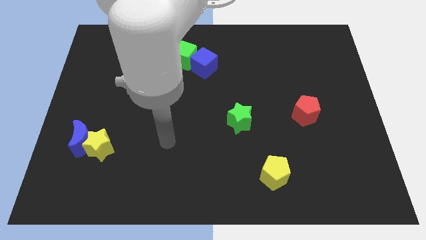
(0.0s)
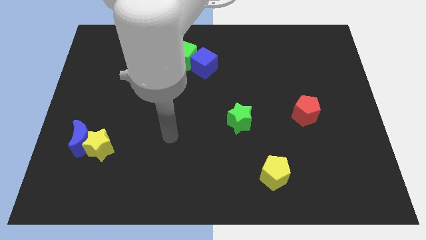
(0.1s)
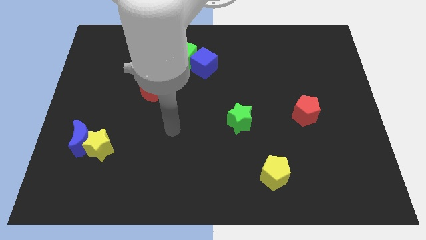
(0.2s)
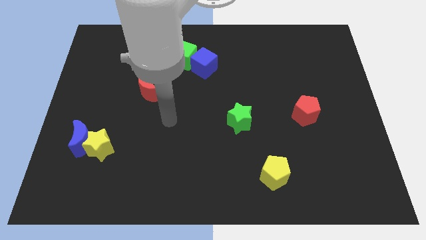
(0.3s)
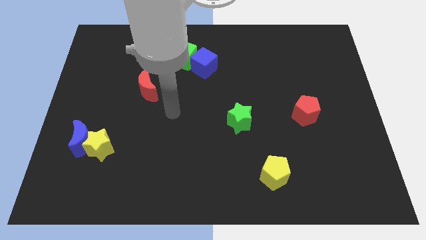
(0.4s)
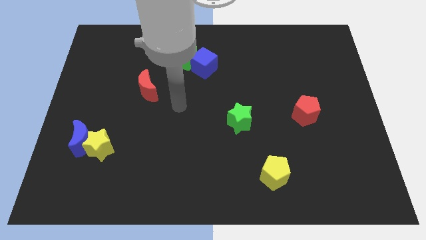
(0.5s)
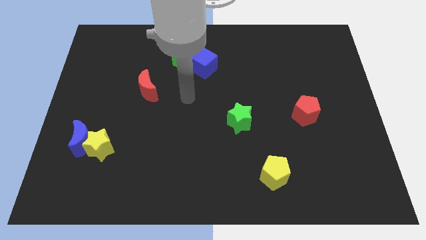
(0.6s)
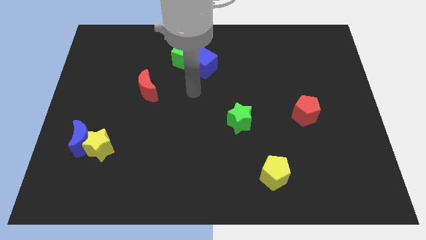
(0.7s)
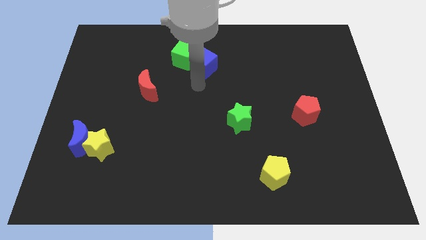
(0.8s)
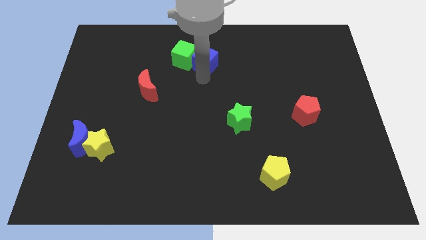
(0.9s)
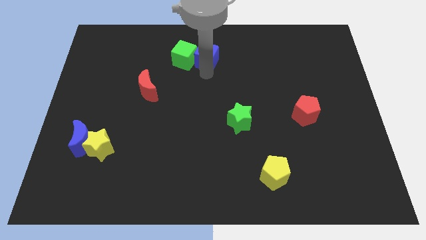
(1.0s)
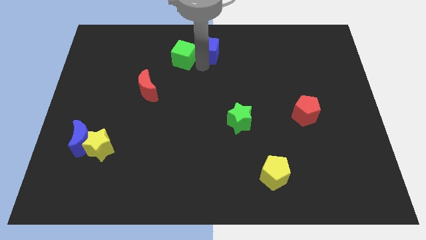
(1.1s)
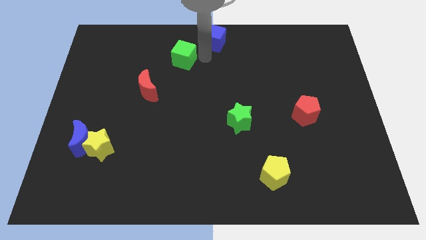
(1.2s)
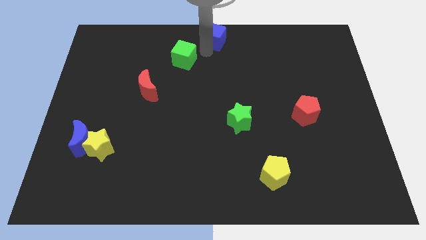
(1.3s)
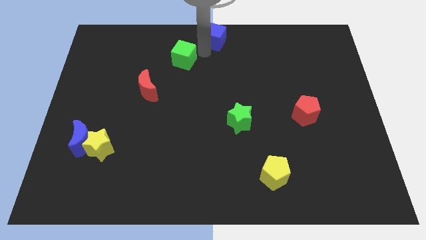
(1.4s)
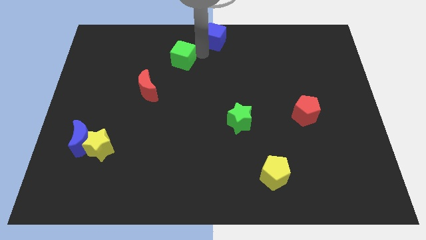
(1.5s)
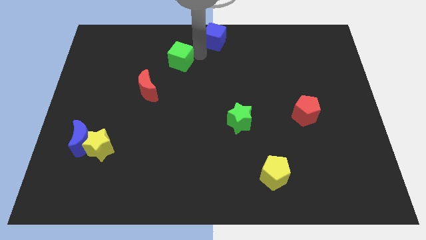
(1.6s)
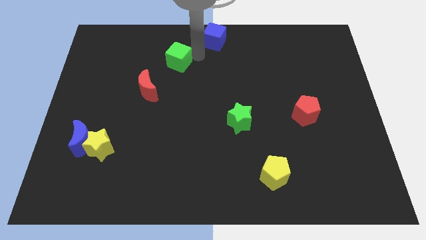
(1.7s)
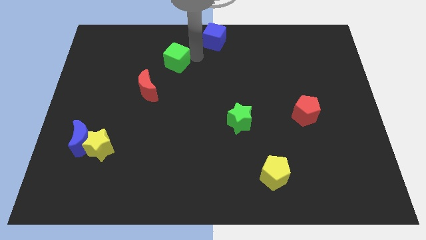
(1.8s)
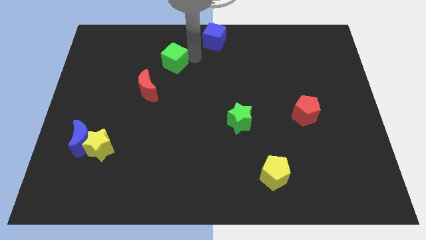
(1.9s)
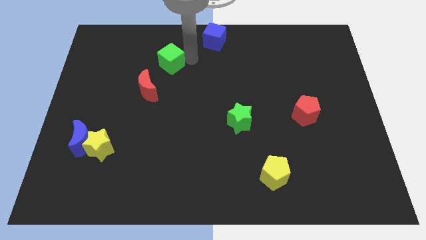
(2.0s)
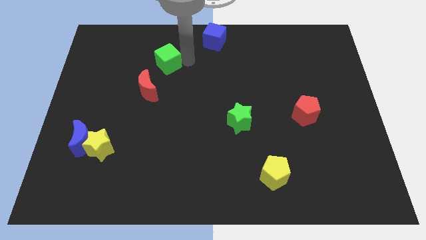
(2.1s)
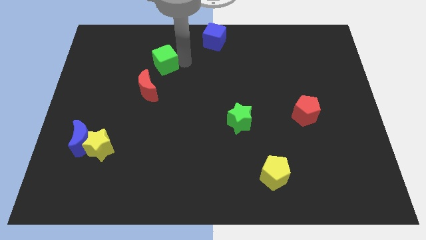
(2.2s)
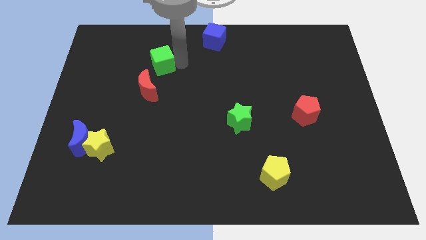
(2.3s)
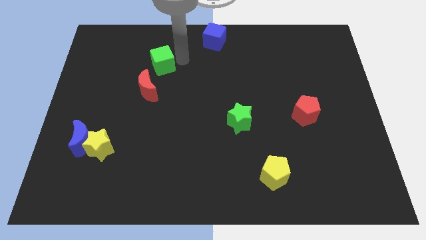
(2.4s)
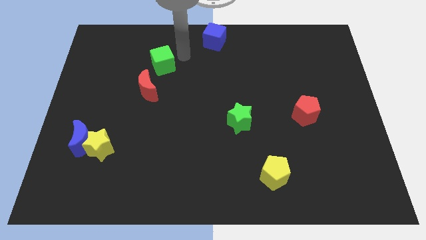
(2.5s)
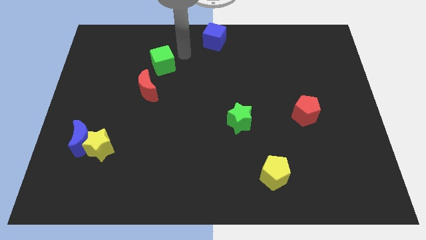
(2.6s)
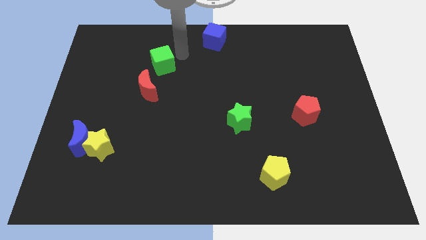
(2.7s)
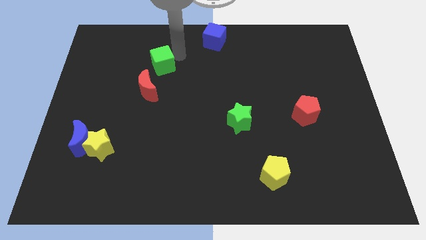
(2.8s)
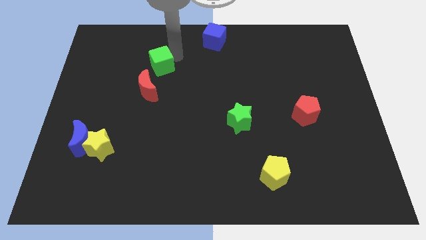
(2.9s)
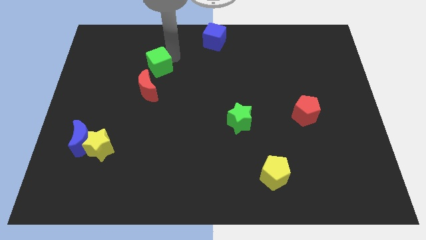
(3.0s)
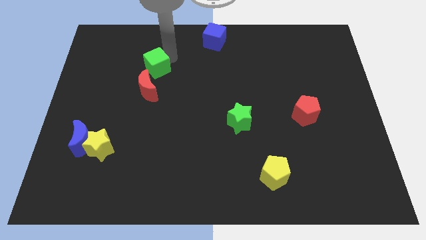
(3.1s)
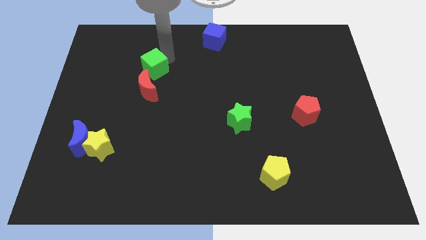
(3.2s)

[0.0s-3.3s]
slide the green cube down and left diagonally slightly

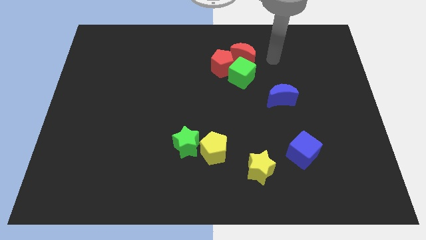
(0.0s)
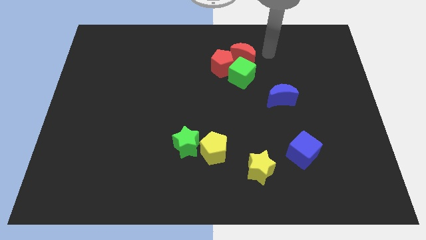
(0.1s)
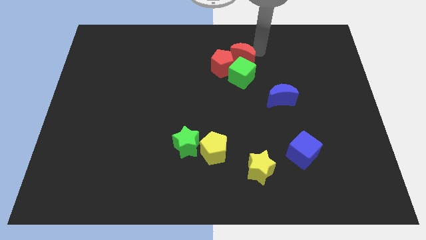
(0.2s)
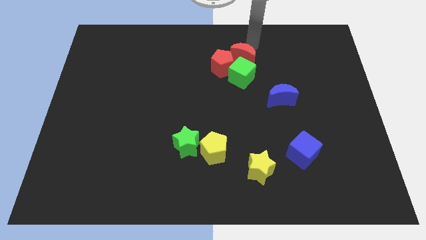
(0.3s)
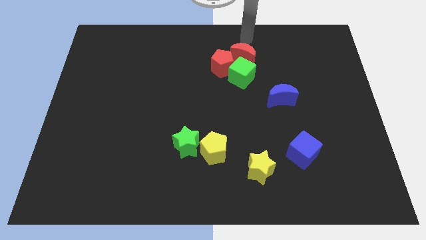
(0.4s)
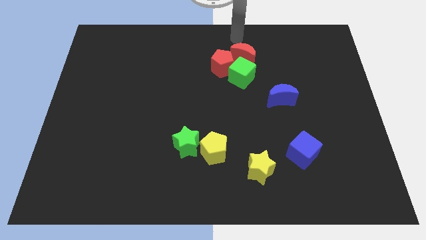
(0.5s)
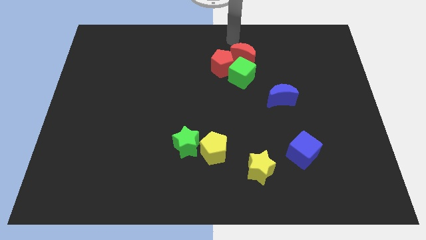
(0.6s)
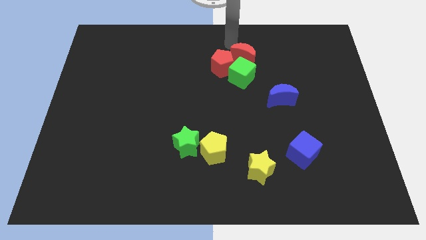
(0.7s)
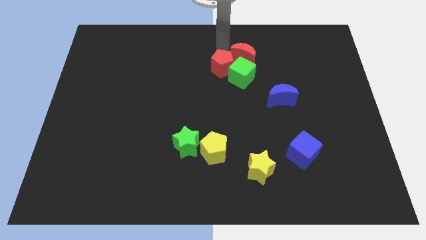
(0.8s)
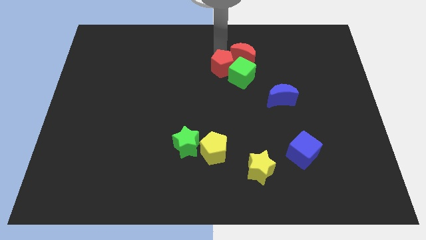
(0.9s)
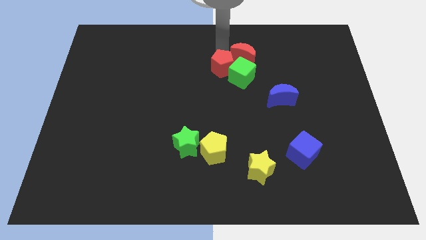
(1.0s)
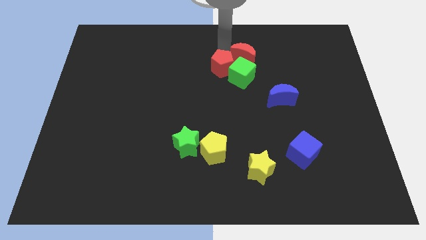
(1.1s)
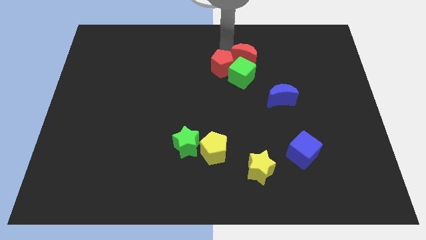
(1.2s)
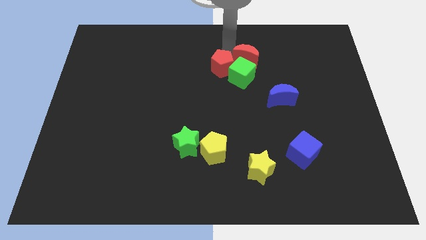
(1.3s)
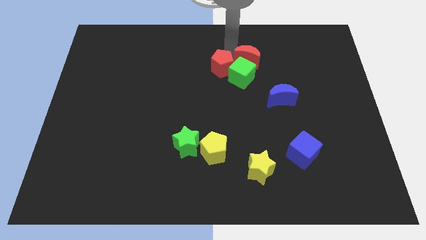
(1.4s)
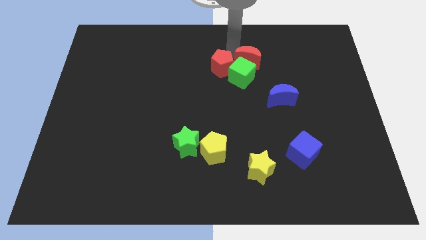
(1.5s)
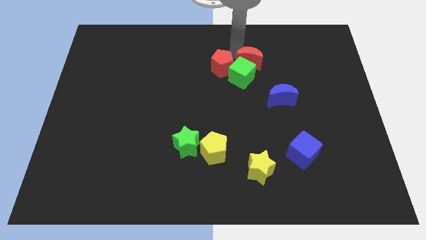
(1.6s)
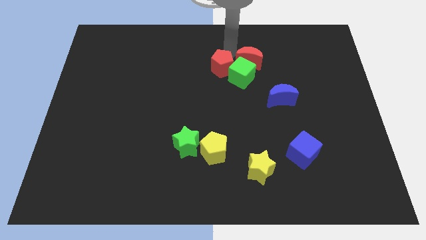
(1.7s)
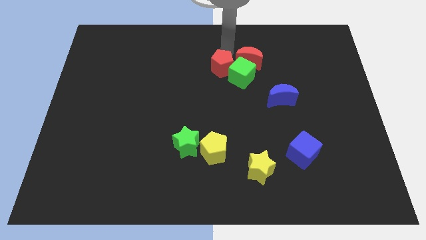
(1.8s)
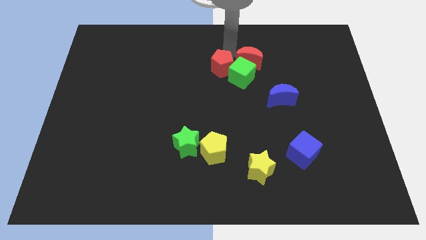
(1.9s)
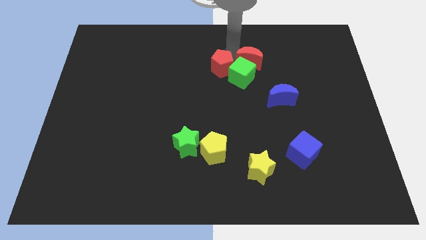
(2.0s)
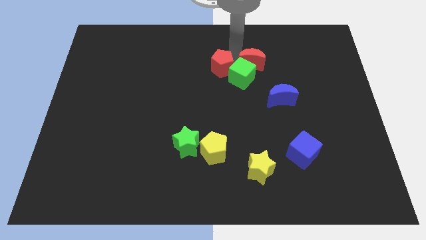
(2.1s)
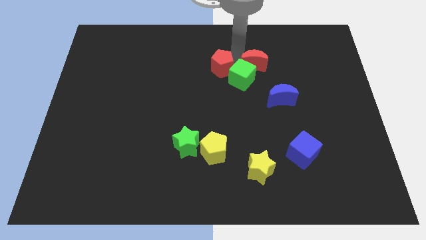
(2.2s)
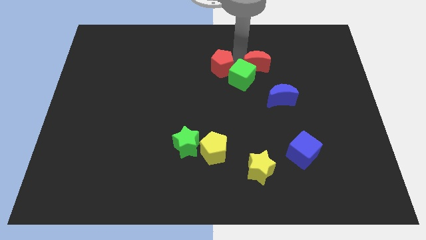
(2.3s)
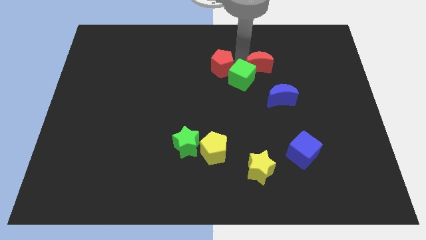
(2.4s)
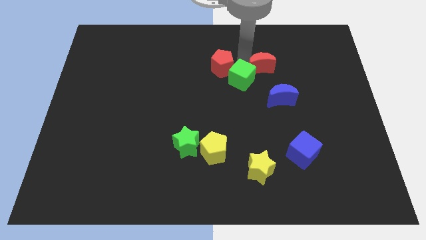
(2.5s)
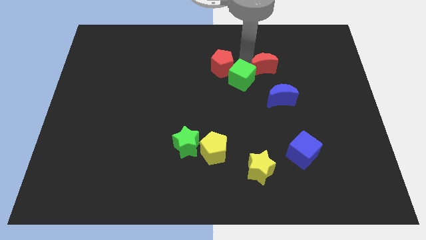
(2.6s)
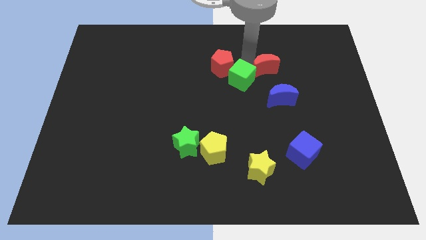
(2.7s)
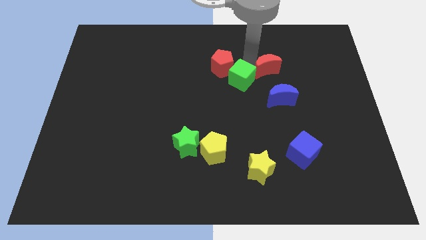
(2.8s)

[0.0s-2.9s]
slightly slide the red moon downwards and then right

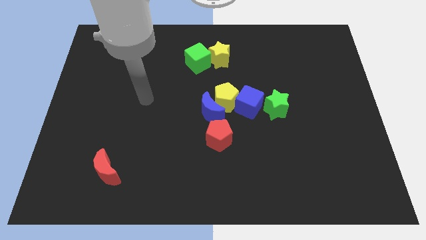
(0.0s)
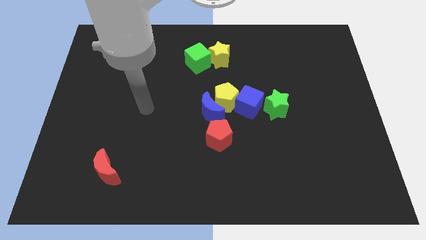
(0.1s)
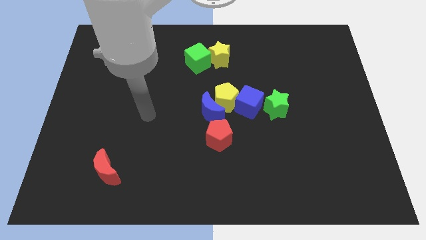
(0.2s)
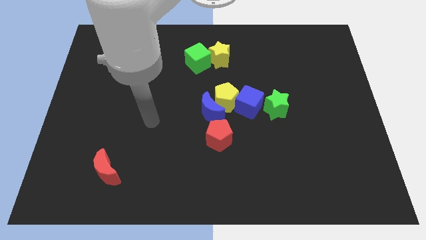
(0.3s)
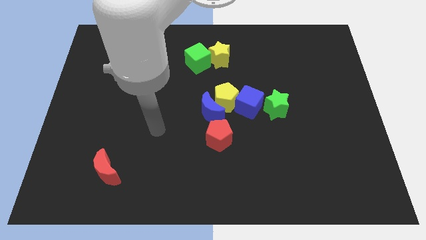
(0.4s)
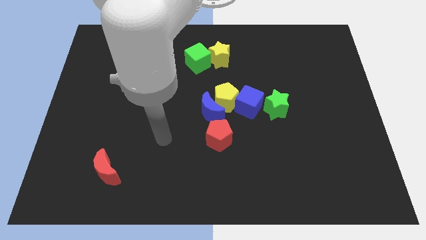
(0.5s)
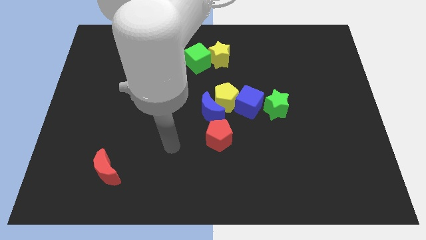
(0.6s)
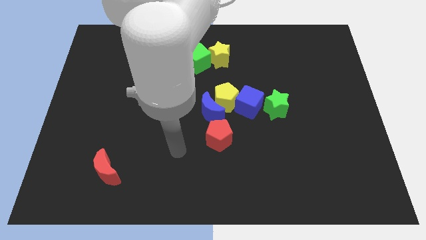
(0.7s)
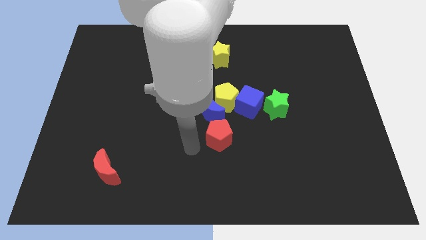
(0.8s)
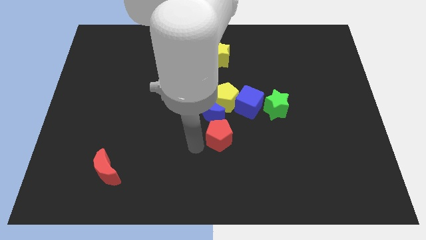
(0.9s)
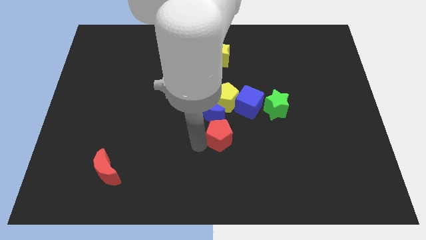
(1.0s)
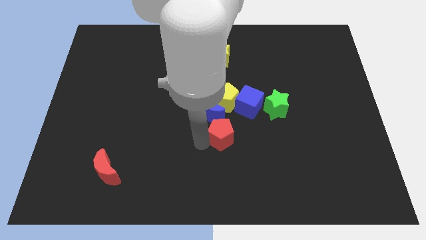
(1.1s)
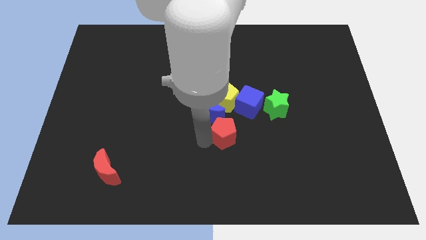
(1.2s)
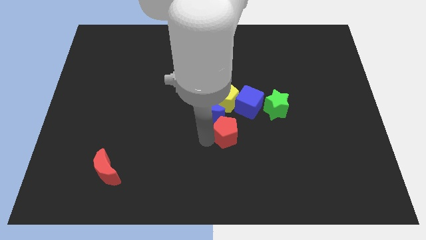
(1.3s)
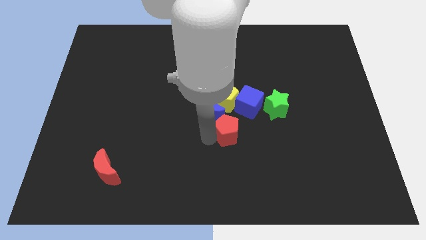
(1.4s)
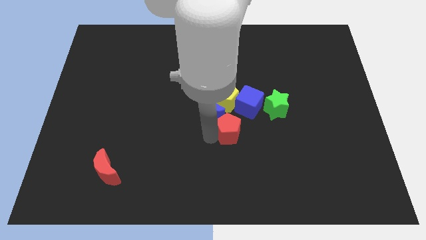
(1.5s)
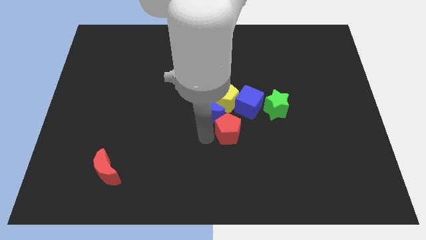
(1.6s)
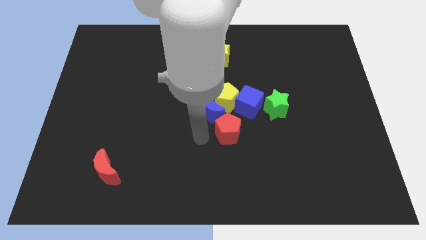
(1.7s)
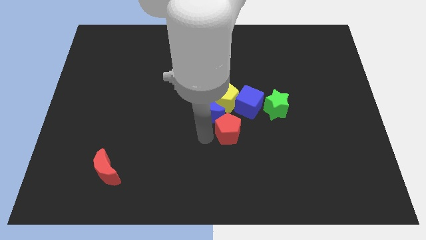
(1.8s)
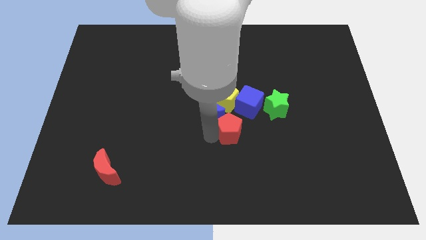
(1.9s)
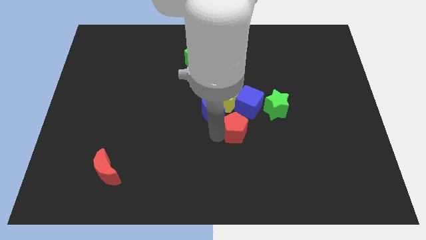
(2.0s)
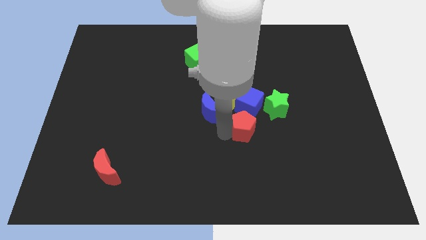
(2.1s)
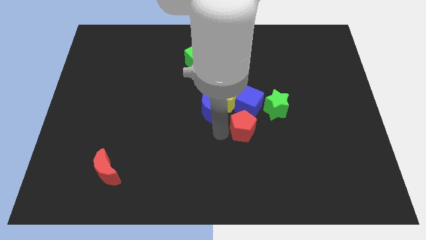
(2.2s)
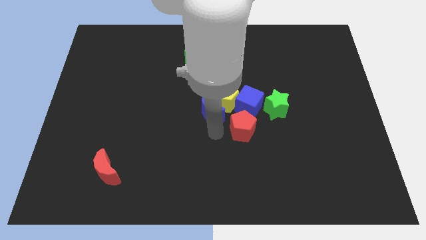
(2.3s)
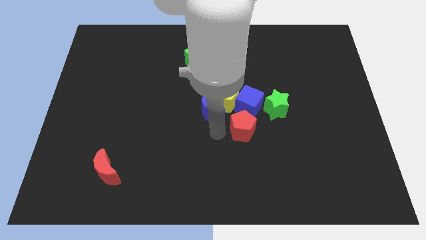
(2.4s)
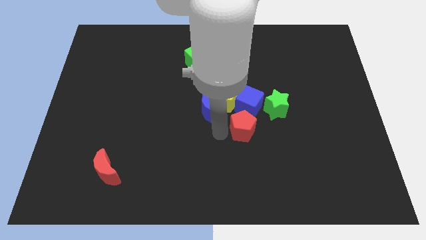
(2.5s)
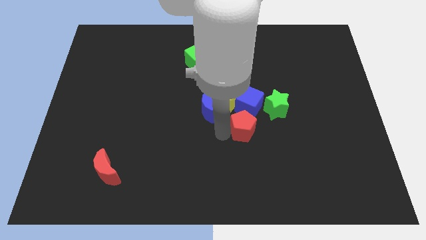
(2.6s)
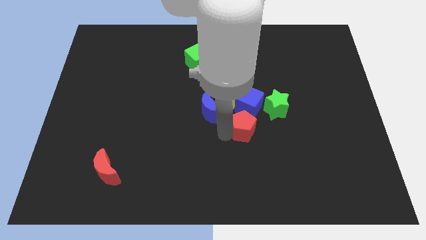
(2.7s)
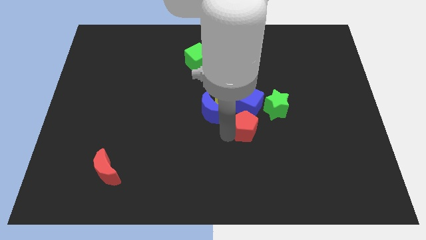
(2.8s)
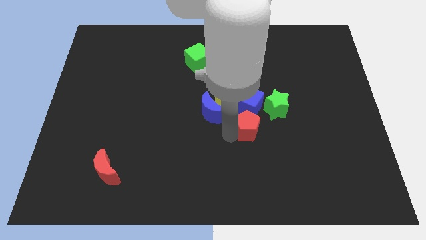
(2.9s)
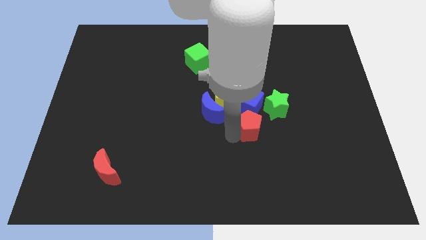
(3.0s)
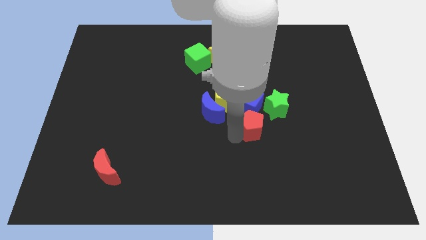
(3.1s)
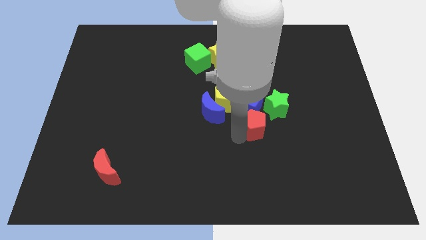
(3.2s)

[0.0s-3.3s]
slightly push the red pentagon upwards and right
